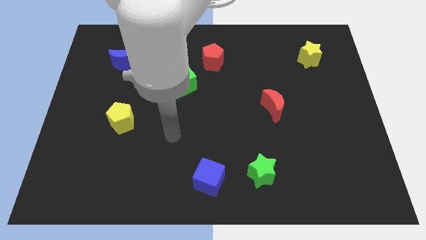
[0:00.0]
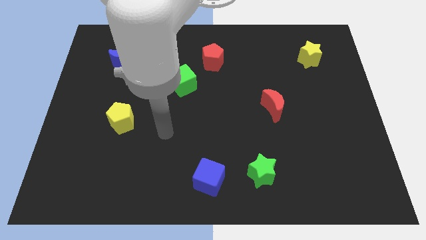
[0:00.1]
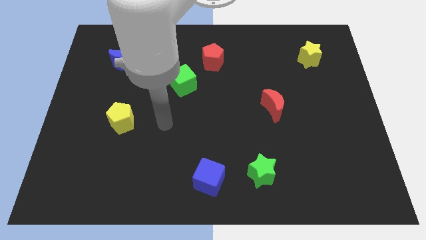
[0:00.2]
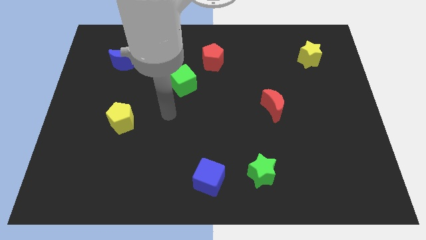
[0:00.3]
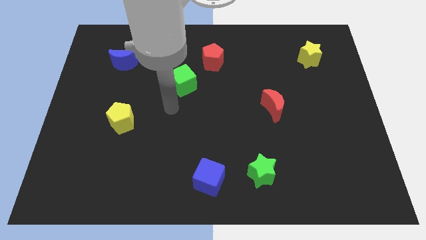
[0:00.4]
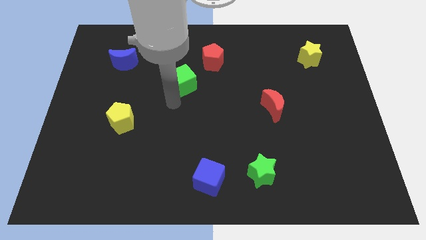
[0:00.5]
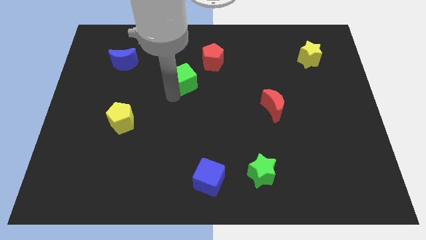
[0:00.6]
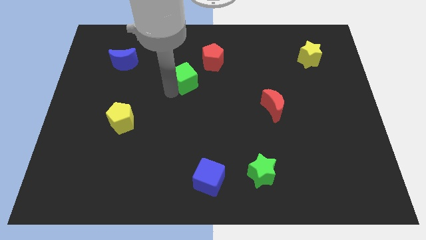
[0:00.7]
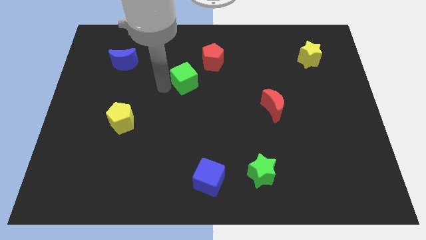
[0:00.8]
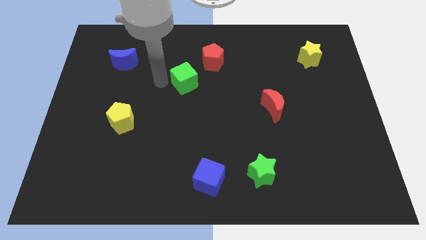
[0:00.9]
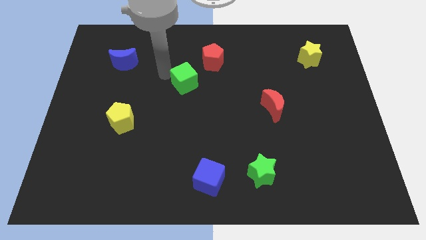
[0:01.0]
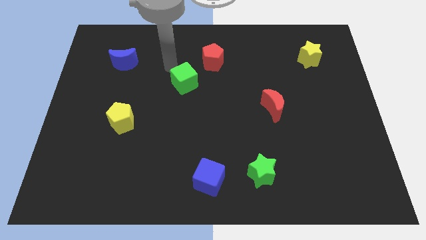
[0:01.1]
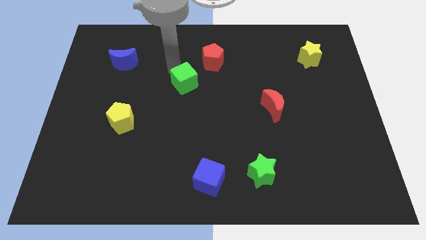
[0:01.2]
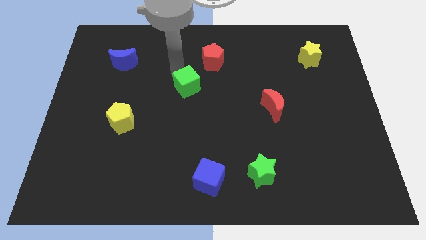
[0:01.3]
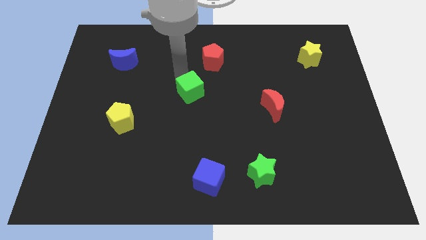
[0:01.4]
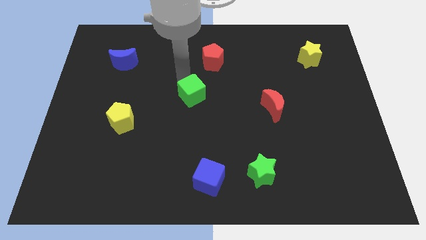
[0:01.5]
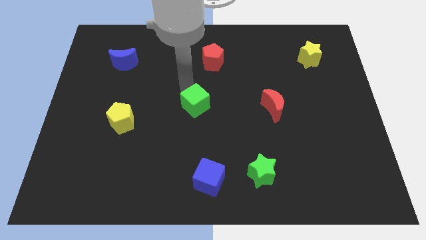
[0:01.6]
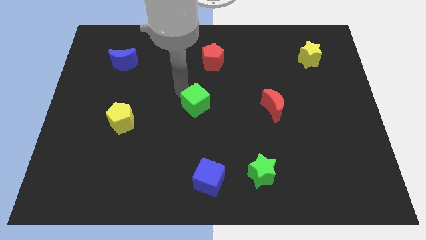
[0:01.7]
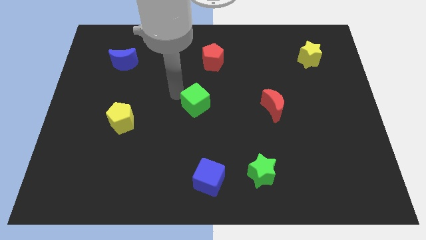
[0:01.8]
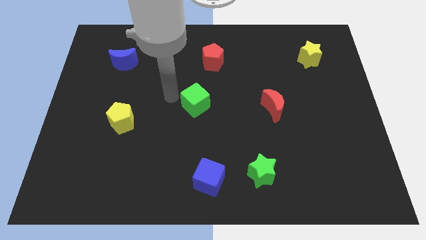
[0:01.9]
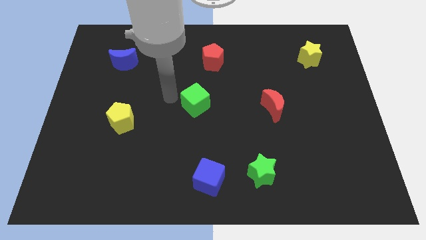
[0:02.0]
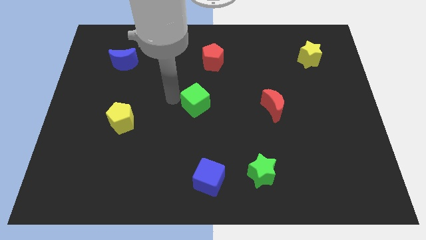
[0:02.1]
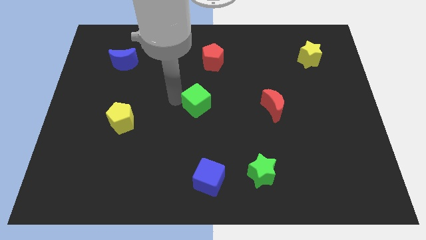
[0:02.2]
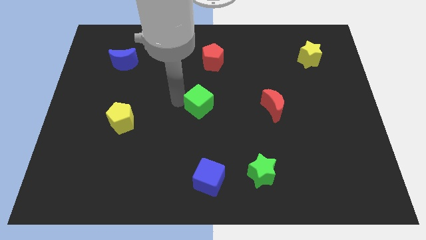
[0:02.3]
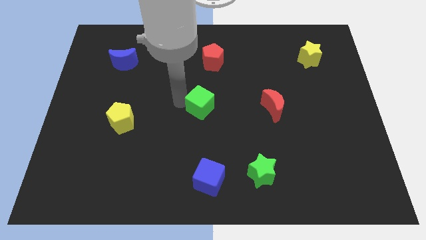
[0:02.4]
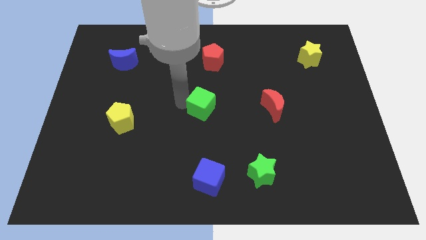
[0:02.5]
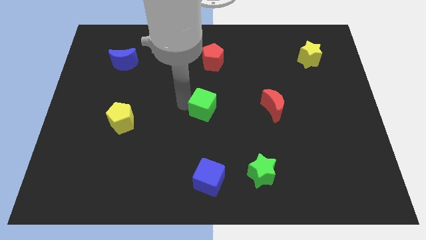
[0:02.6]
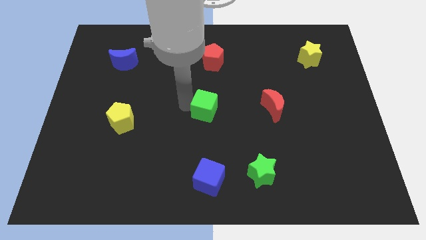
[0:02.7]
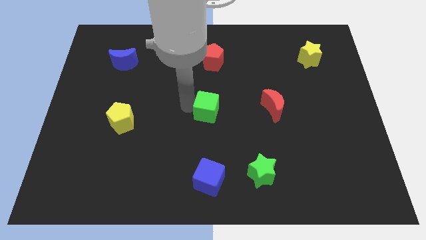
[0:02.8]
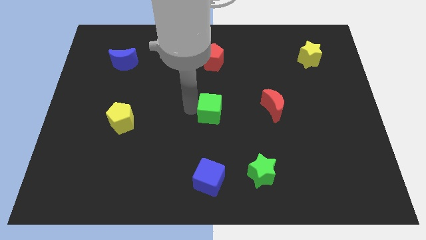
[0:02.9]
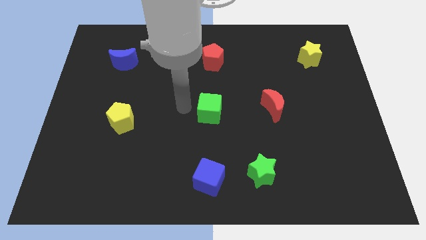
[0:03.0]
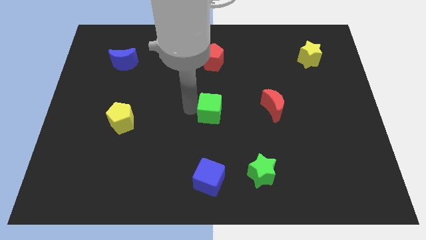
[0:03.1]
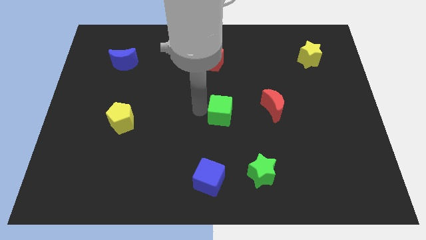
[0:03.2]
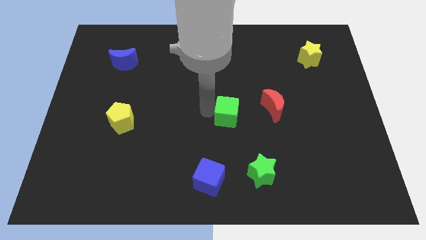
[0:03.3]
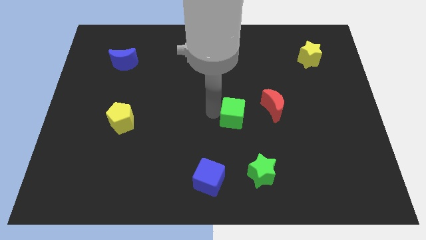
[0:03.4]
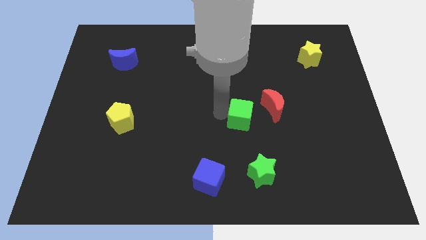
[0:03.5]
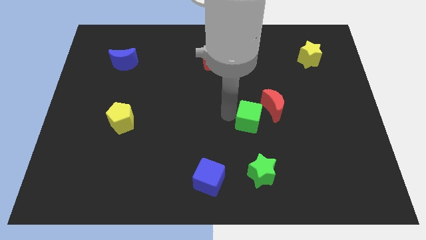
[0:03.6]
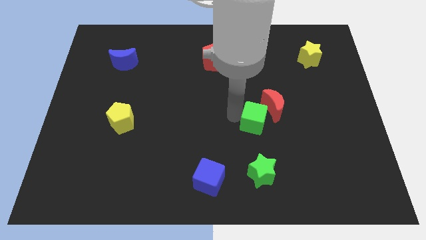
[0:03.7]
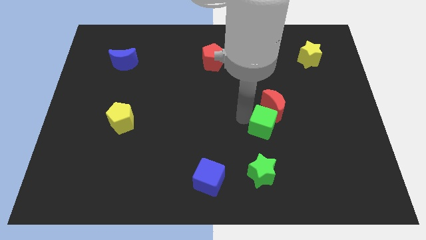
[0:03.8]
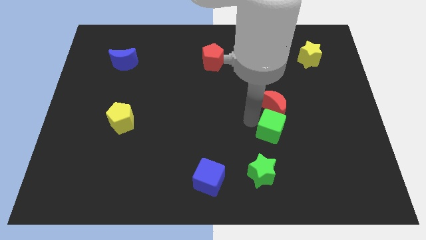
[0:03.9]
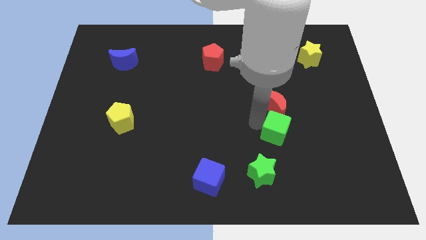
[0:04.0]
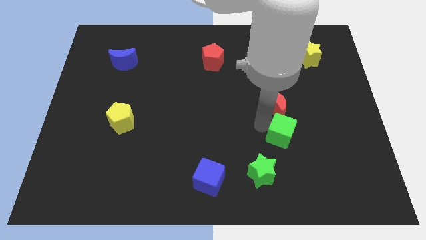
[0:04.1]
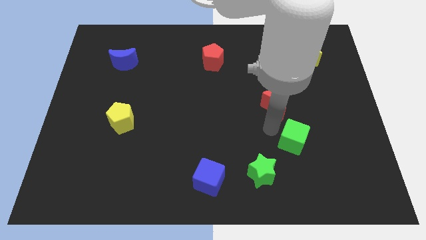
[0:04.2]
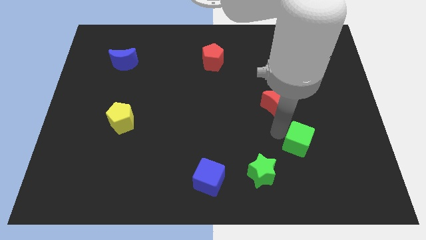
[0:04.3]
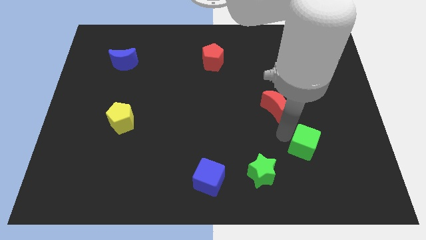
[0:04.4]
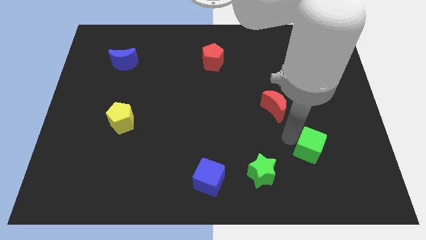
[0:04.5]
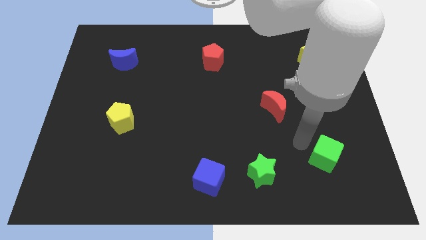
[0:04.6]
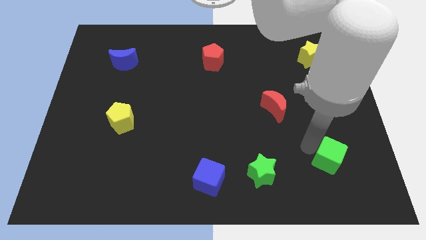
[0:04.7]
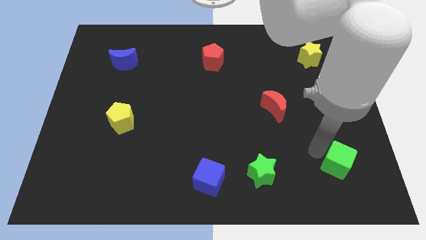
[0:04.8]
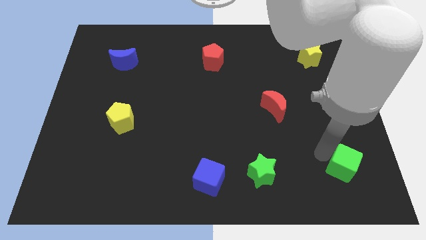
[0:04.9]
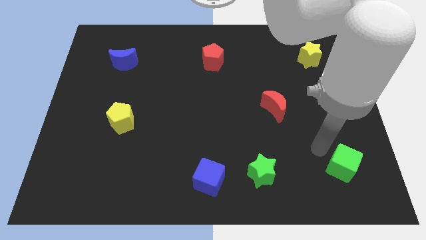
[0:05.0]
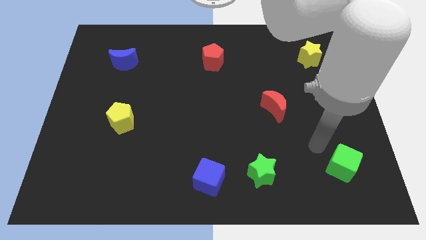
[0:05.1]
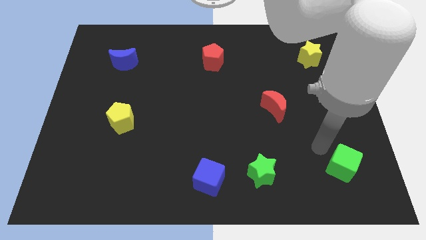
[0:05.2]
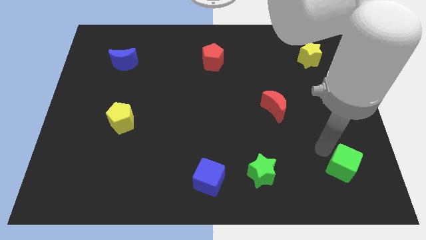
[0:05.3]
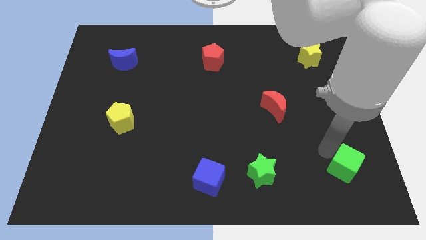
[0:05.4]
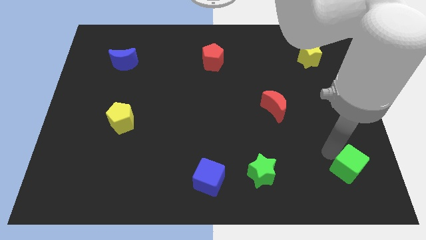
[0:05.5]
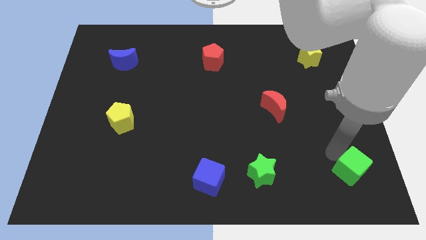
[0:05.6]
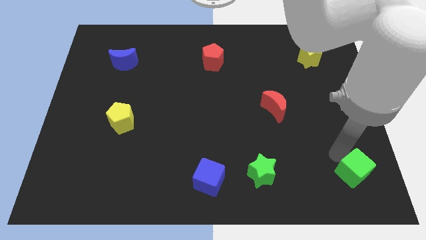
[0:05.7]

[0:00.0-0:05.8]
put the green cube to the lower right corner

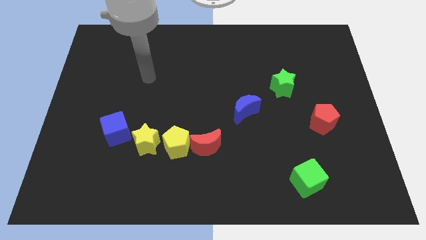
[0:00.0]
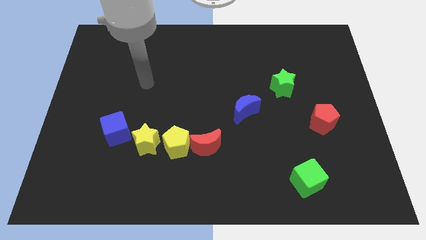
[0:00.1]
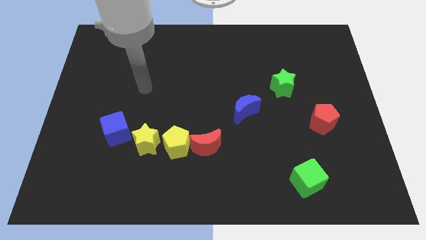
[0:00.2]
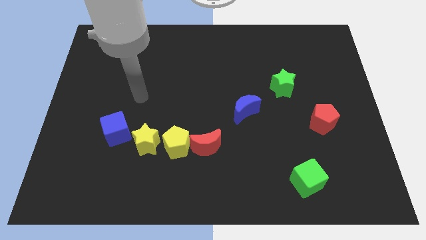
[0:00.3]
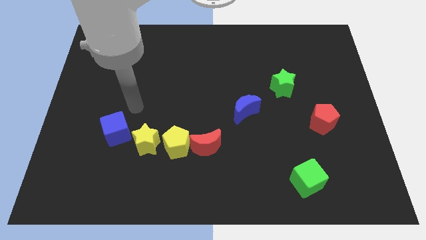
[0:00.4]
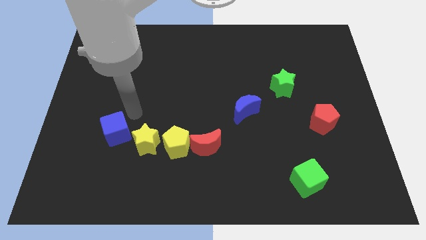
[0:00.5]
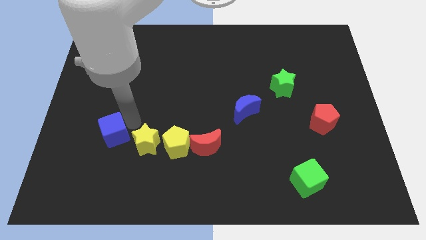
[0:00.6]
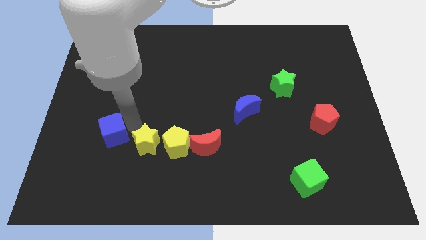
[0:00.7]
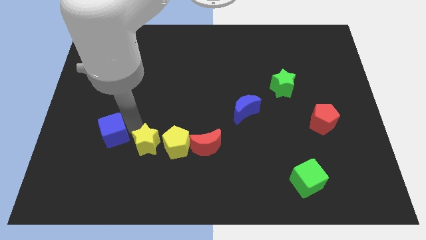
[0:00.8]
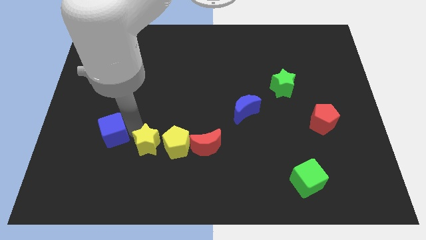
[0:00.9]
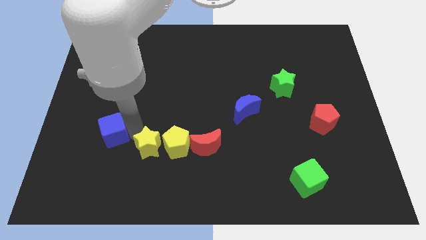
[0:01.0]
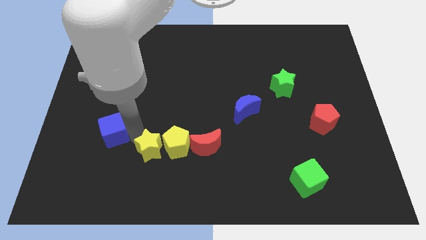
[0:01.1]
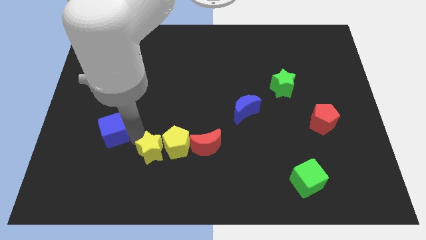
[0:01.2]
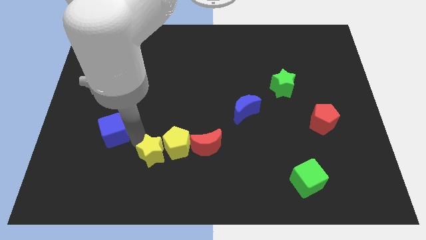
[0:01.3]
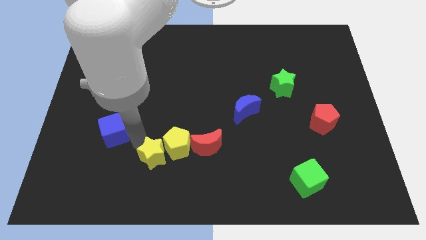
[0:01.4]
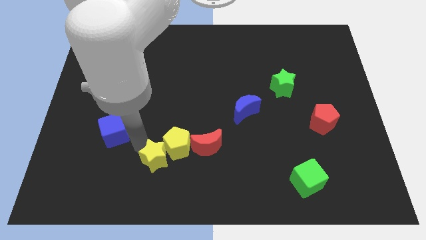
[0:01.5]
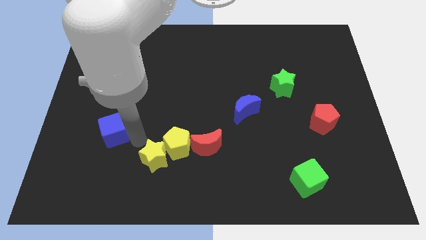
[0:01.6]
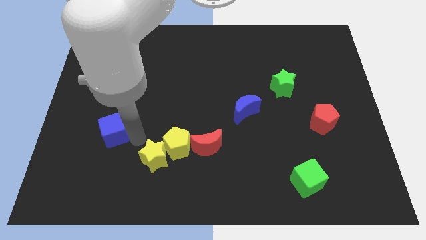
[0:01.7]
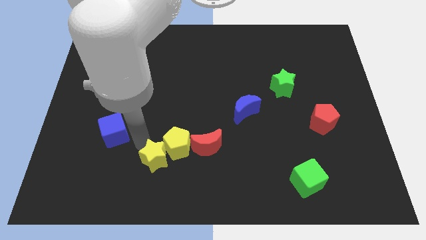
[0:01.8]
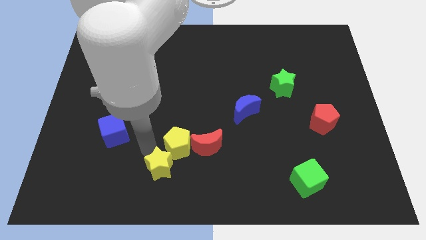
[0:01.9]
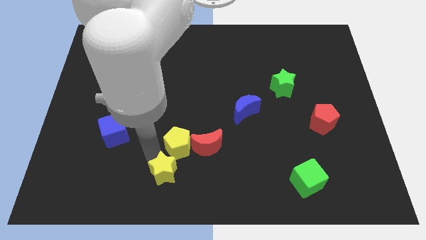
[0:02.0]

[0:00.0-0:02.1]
put the yellow star to the bottom
